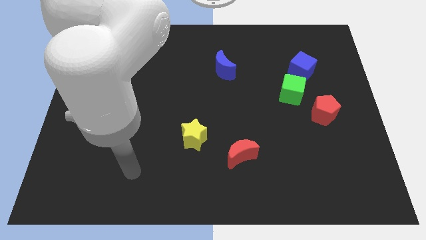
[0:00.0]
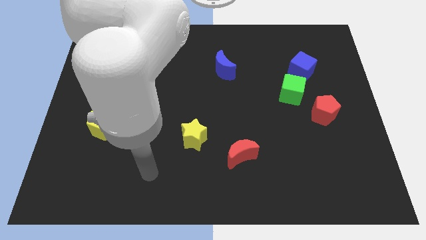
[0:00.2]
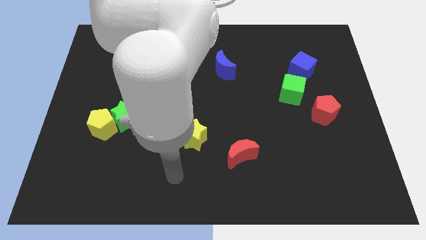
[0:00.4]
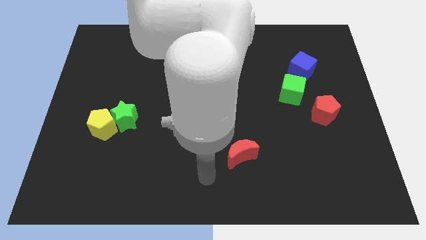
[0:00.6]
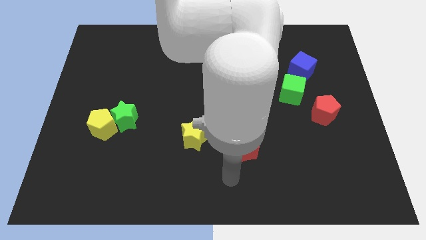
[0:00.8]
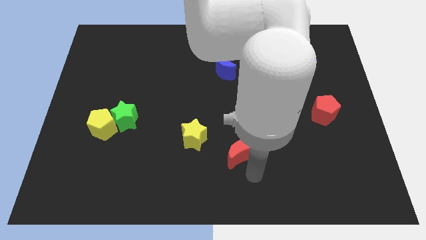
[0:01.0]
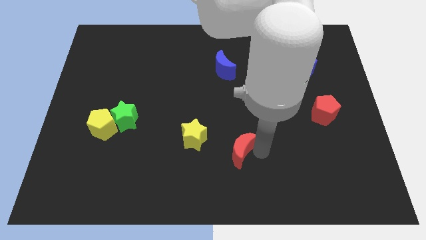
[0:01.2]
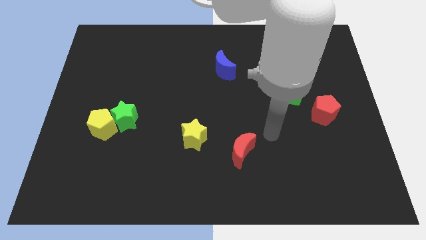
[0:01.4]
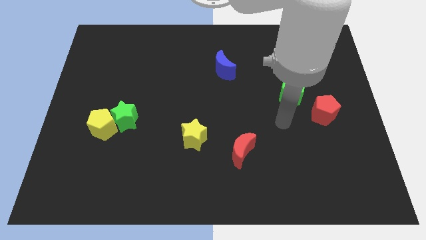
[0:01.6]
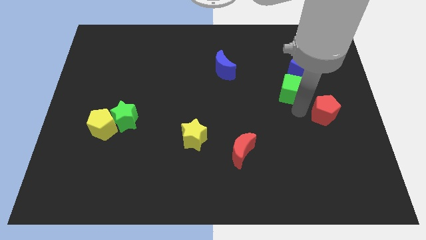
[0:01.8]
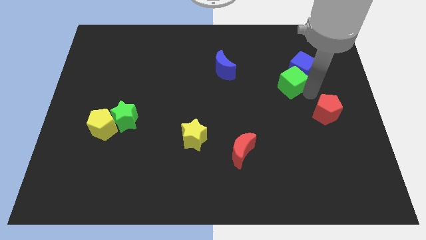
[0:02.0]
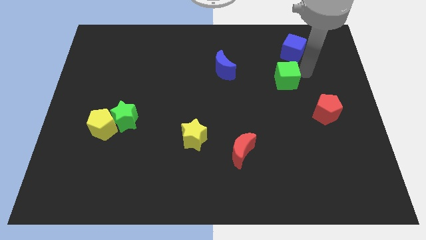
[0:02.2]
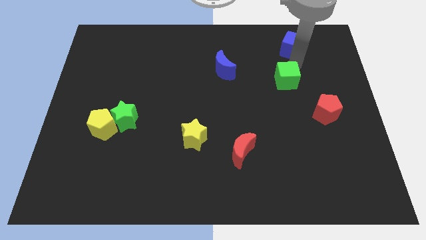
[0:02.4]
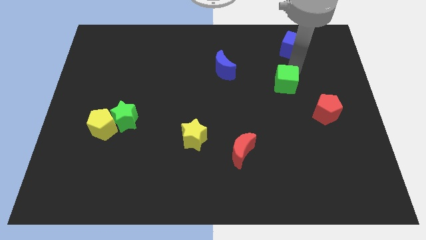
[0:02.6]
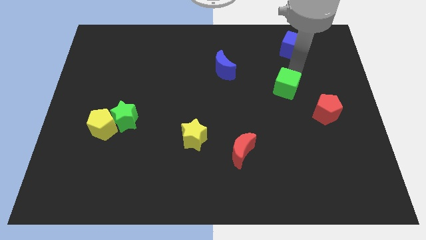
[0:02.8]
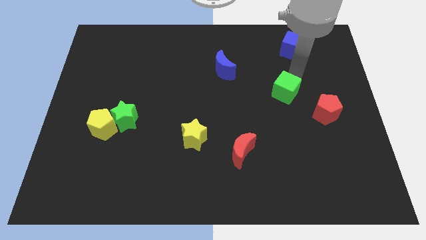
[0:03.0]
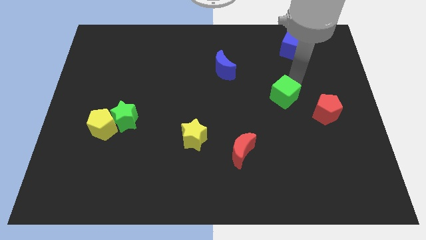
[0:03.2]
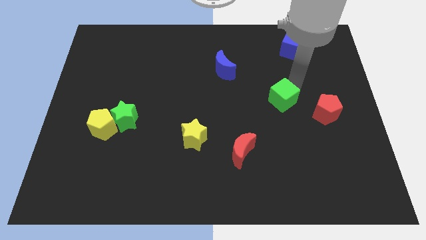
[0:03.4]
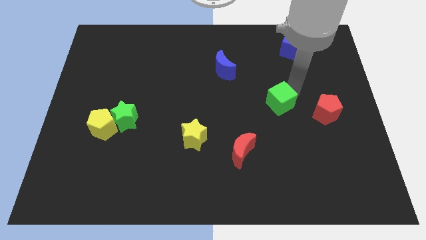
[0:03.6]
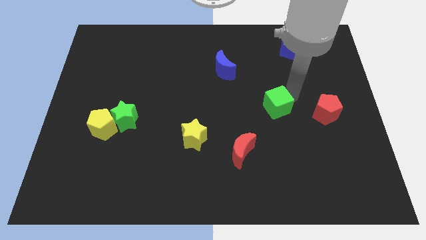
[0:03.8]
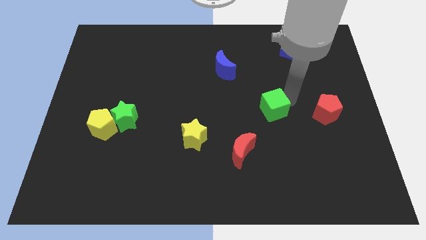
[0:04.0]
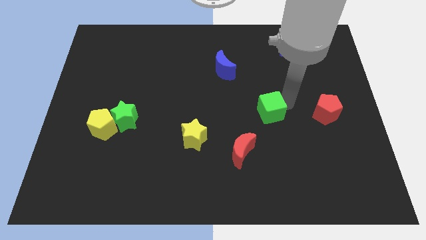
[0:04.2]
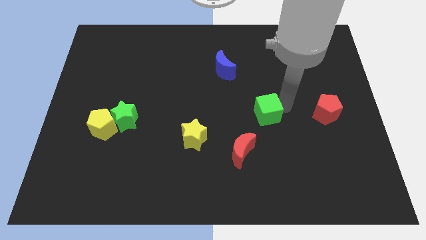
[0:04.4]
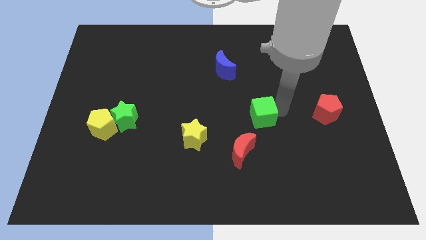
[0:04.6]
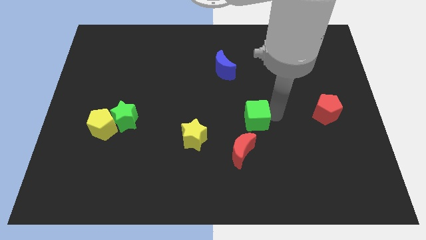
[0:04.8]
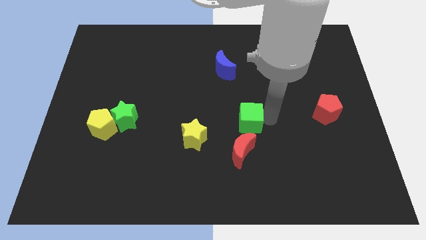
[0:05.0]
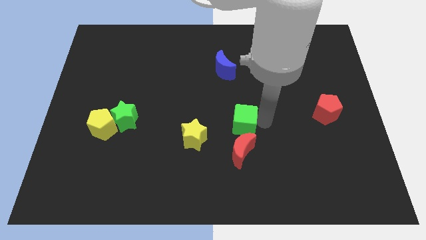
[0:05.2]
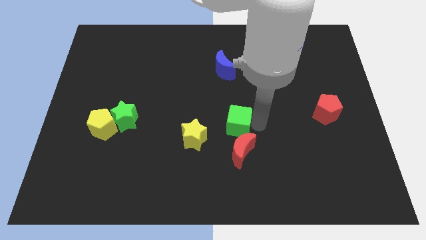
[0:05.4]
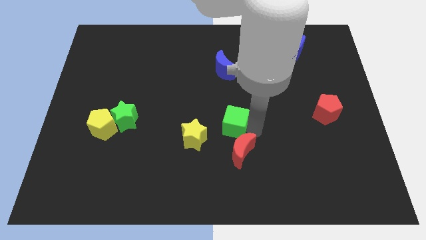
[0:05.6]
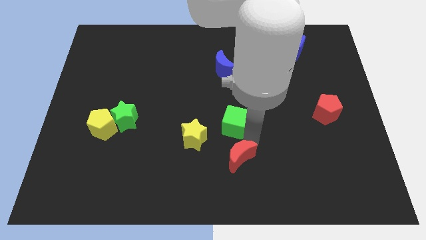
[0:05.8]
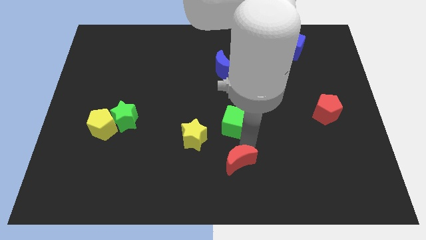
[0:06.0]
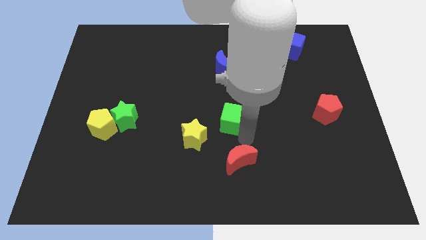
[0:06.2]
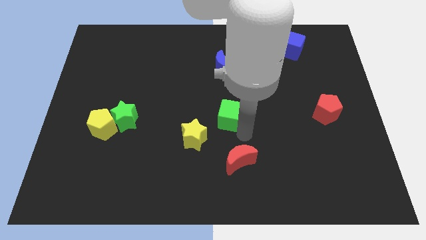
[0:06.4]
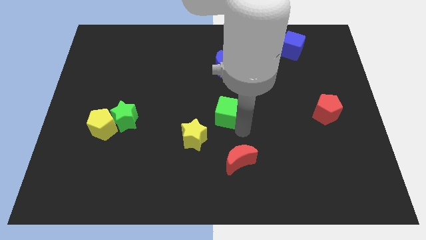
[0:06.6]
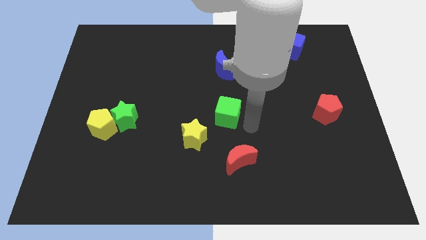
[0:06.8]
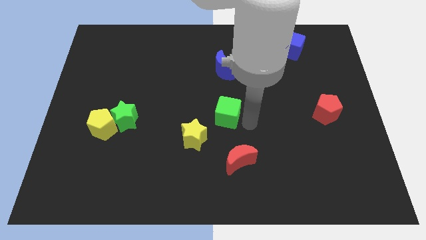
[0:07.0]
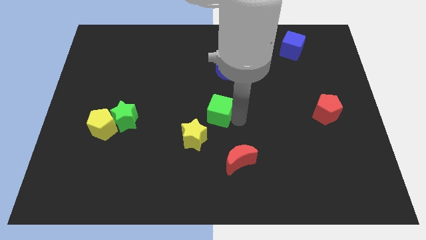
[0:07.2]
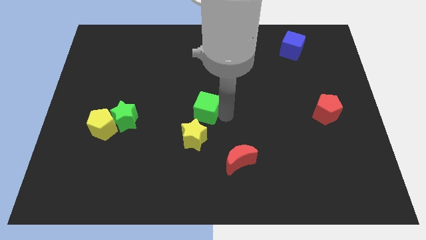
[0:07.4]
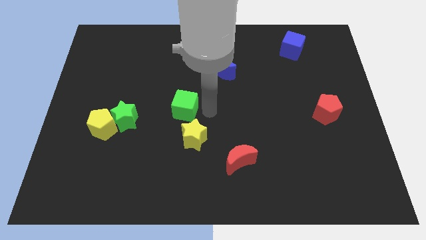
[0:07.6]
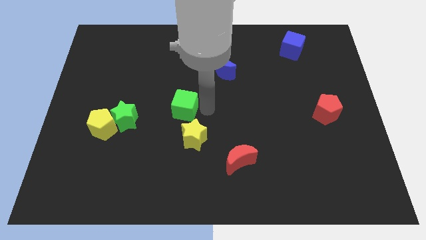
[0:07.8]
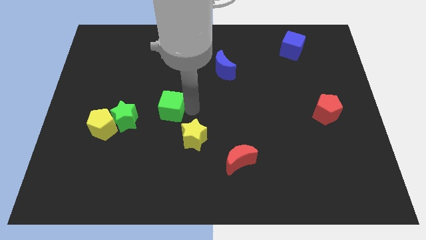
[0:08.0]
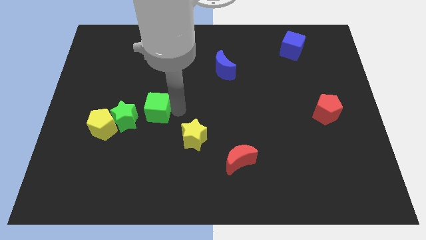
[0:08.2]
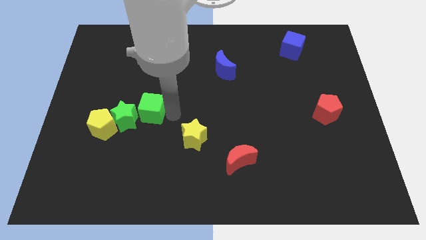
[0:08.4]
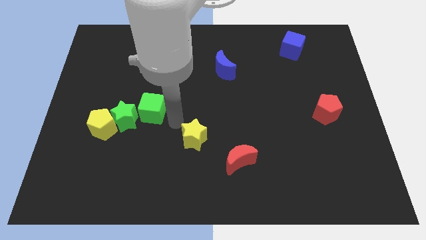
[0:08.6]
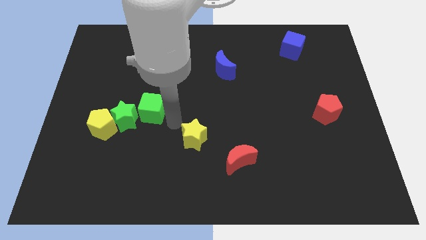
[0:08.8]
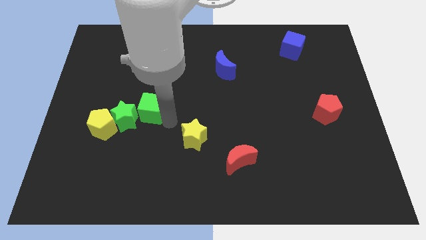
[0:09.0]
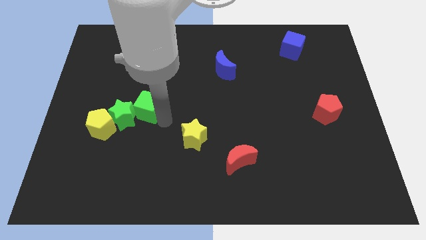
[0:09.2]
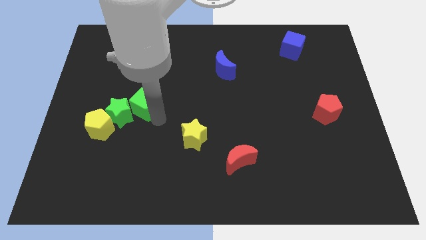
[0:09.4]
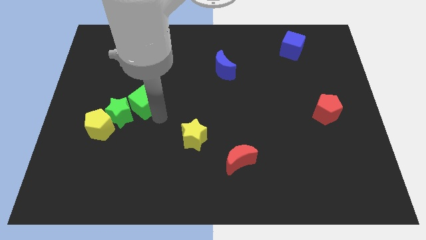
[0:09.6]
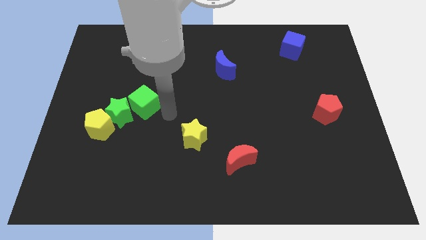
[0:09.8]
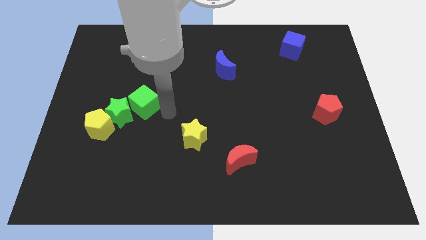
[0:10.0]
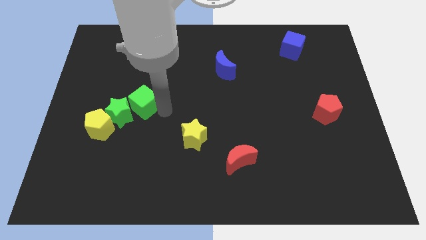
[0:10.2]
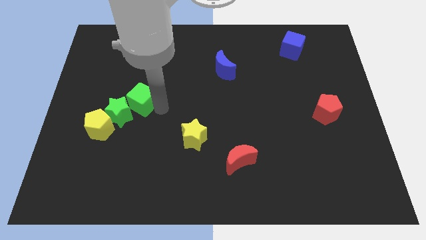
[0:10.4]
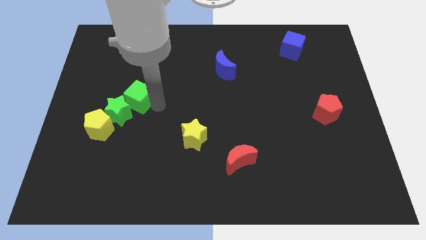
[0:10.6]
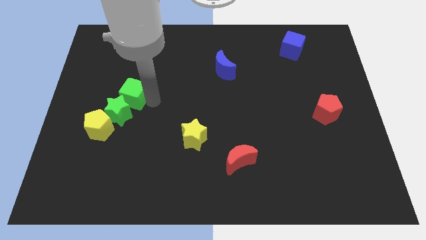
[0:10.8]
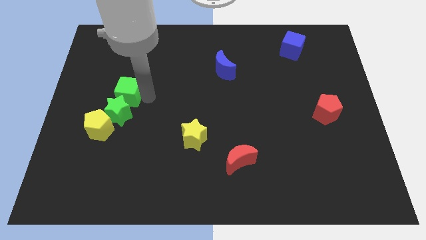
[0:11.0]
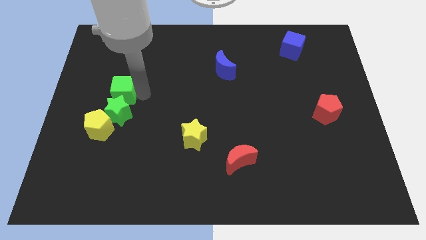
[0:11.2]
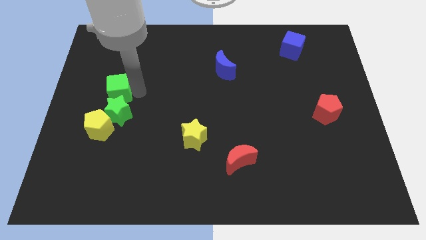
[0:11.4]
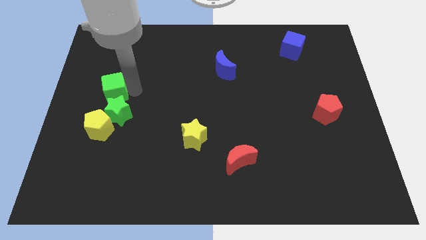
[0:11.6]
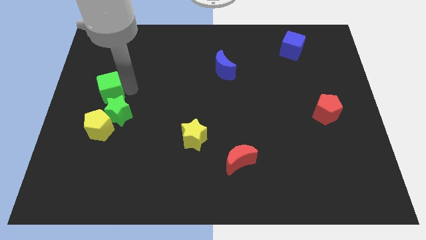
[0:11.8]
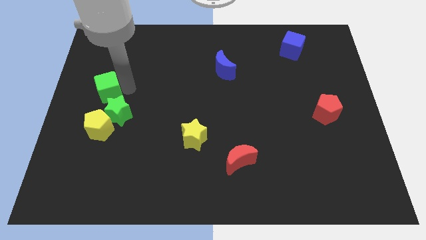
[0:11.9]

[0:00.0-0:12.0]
put the green cube to the left side
